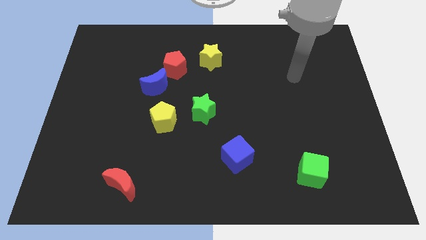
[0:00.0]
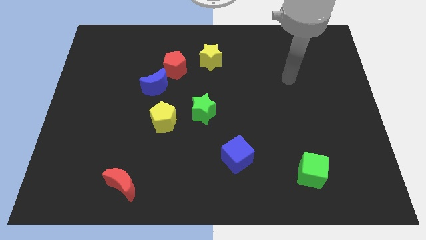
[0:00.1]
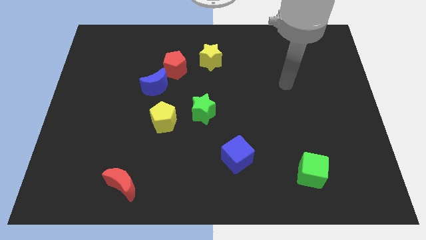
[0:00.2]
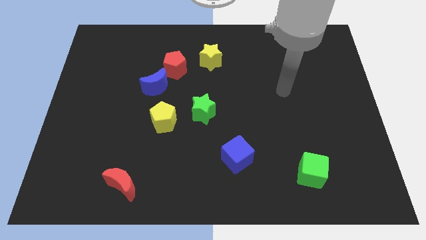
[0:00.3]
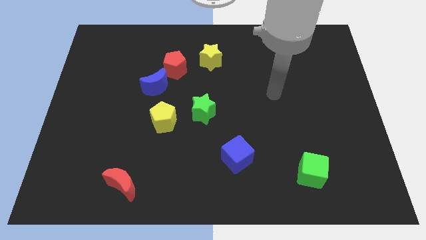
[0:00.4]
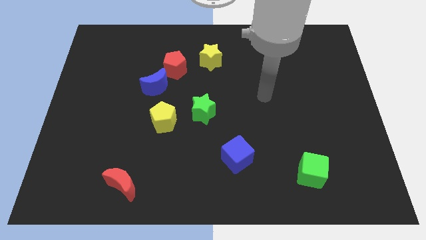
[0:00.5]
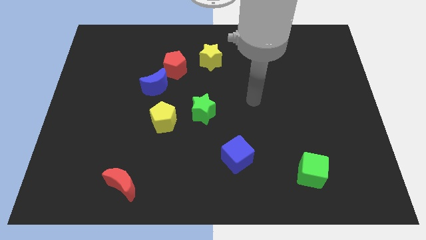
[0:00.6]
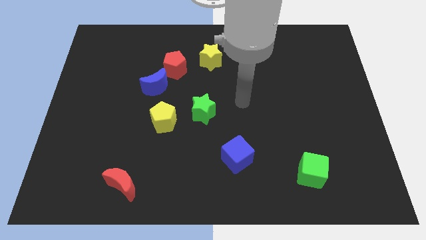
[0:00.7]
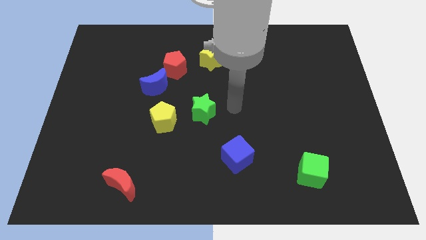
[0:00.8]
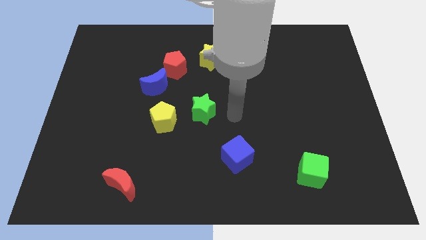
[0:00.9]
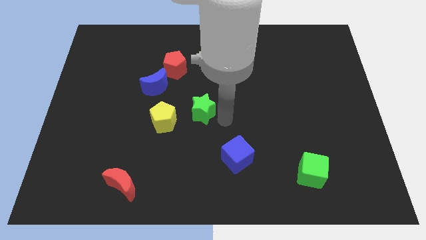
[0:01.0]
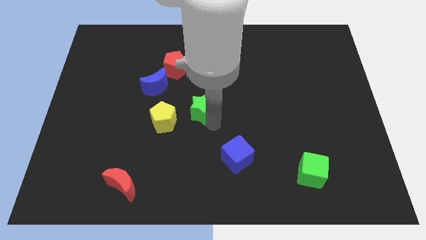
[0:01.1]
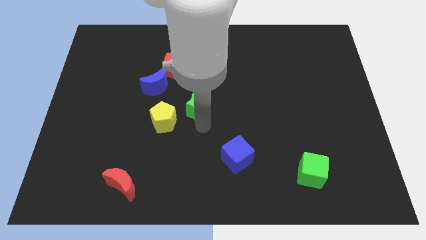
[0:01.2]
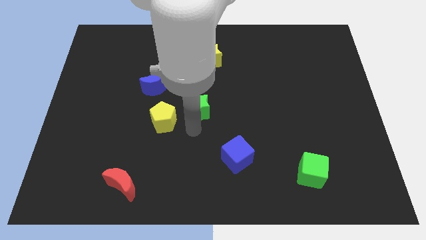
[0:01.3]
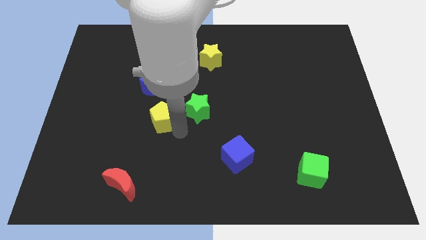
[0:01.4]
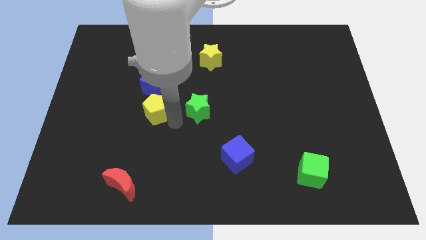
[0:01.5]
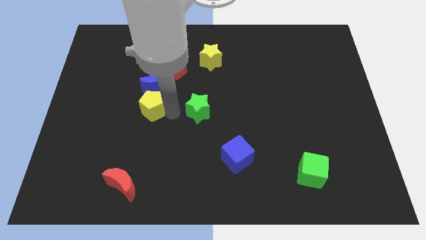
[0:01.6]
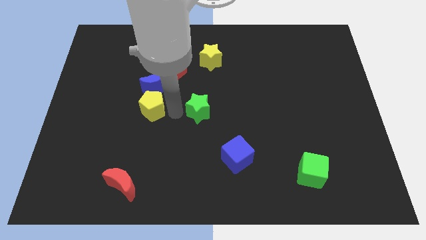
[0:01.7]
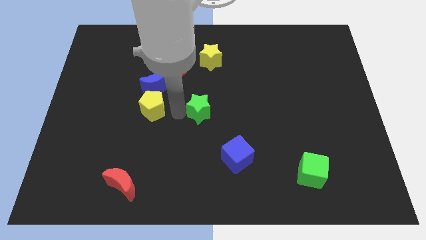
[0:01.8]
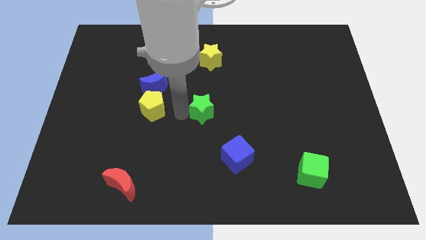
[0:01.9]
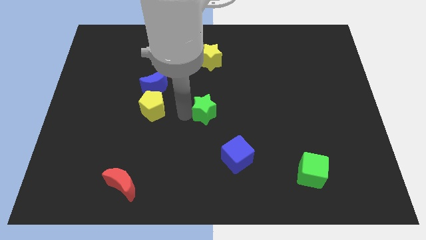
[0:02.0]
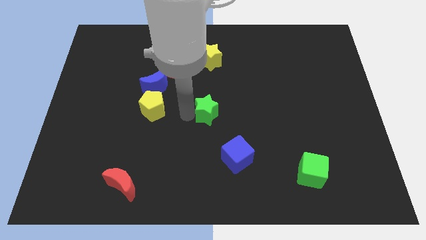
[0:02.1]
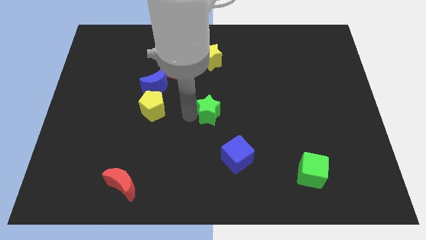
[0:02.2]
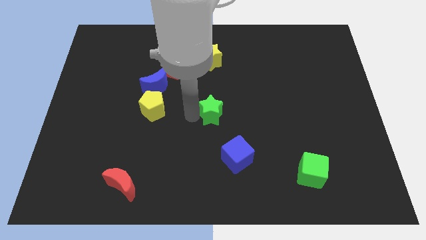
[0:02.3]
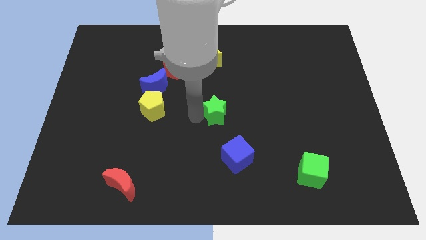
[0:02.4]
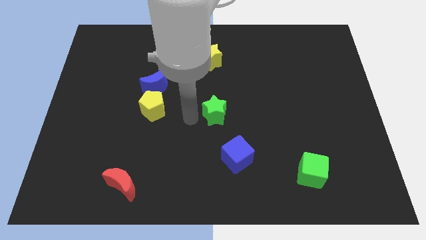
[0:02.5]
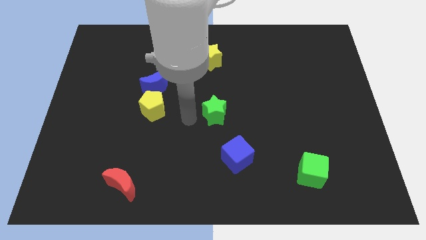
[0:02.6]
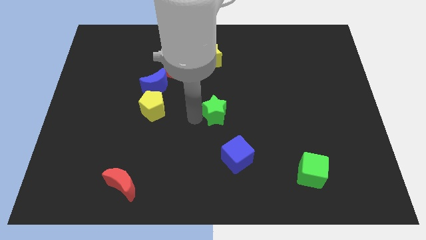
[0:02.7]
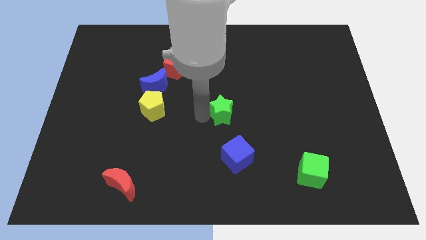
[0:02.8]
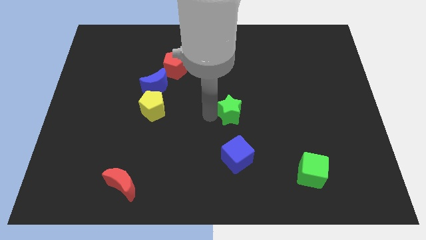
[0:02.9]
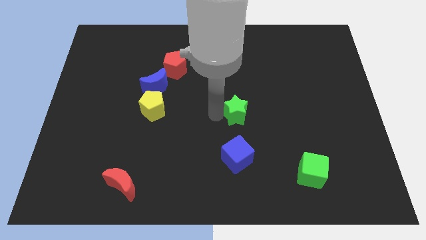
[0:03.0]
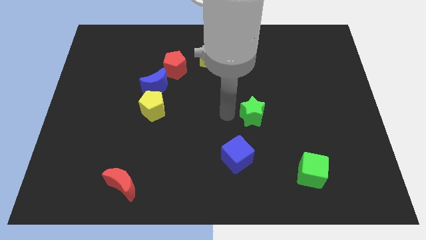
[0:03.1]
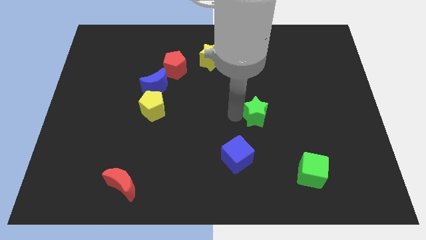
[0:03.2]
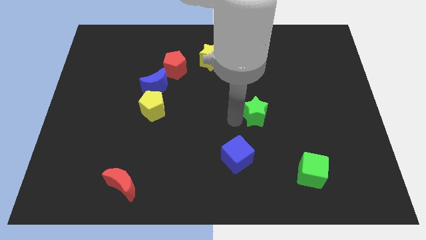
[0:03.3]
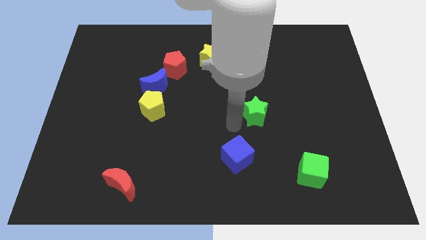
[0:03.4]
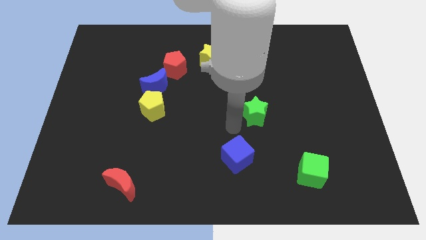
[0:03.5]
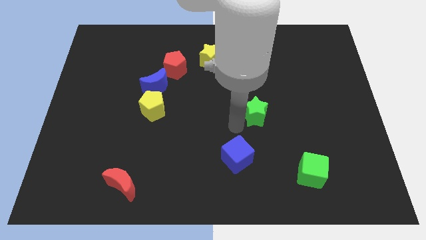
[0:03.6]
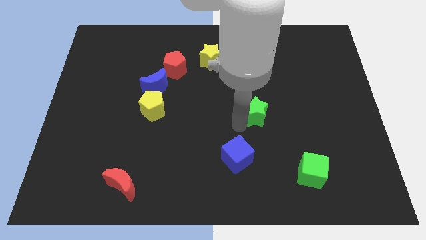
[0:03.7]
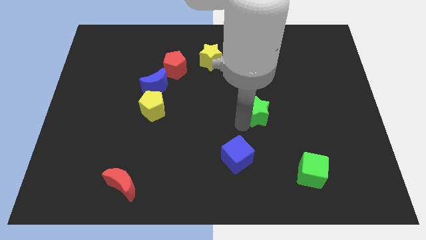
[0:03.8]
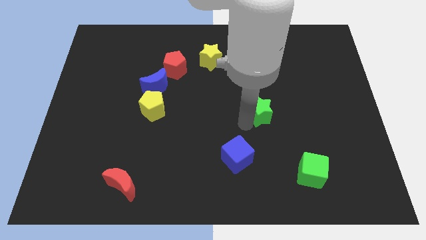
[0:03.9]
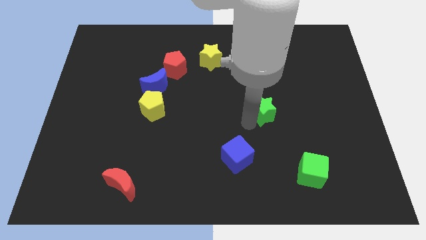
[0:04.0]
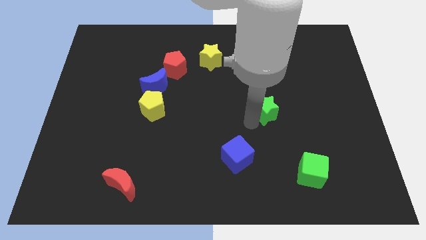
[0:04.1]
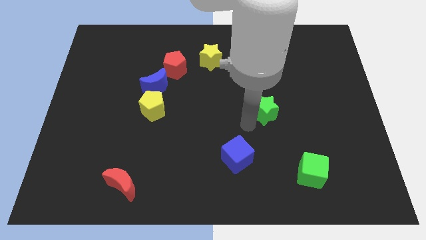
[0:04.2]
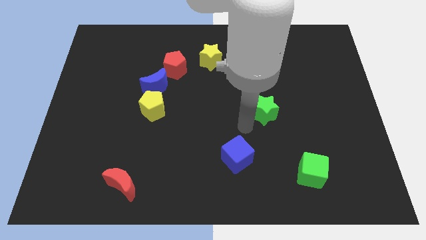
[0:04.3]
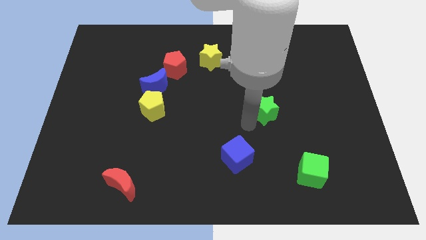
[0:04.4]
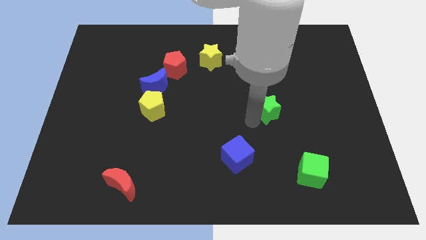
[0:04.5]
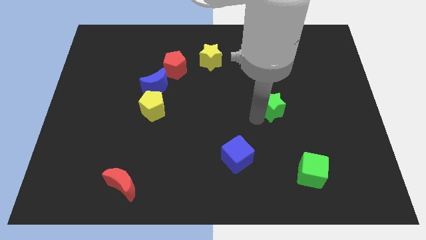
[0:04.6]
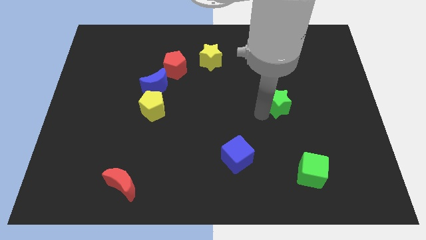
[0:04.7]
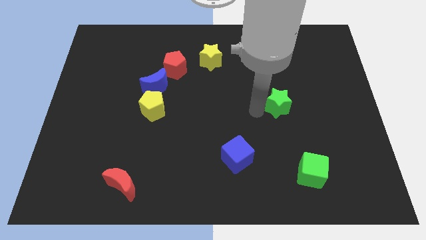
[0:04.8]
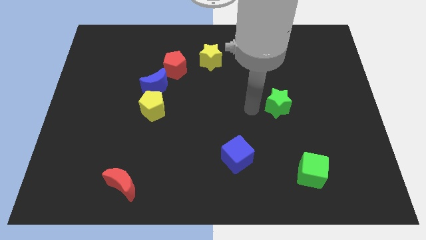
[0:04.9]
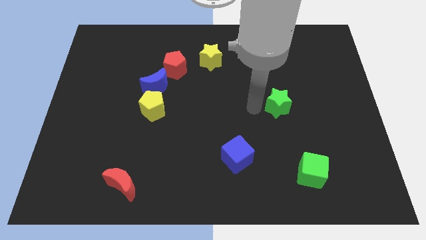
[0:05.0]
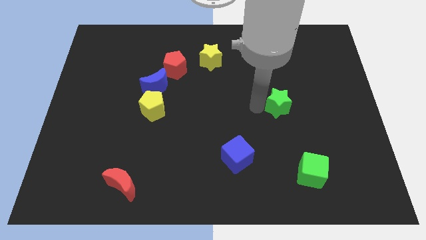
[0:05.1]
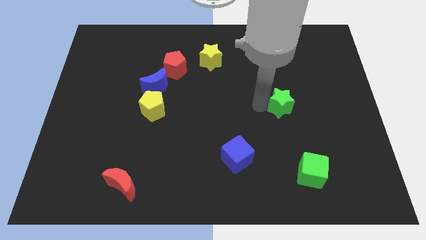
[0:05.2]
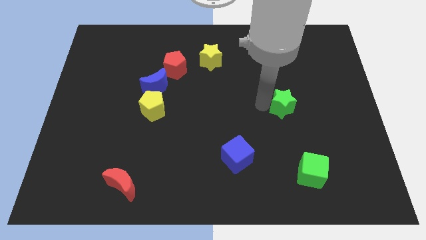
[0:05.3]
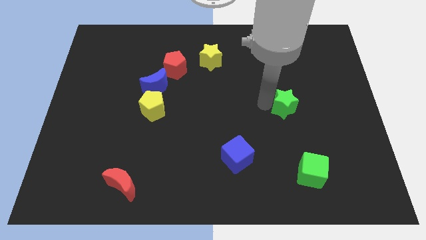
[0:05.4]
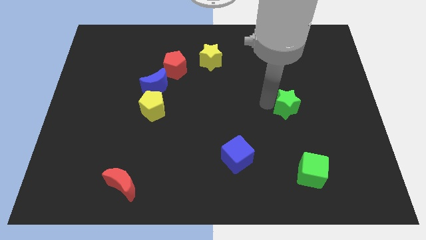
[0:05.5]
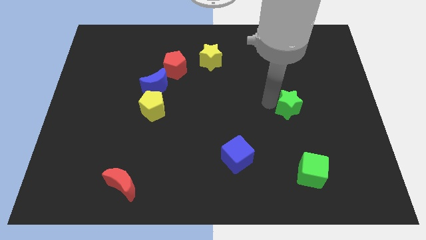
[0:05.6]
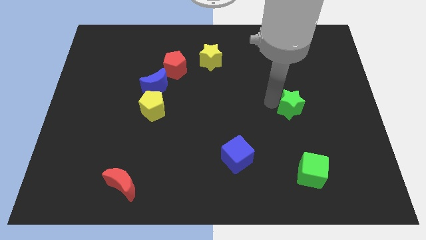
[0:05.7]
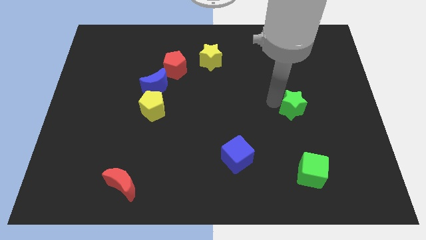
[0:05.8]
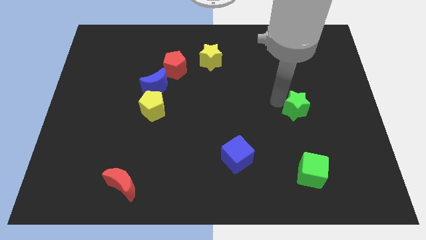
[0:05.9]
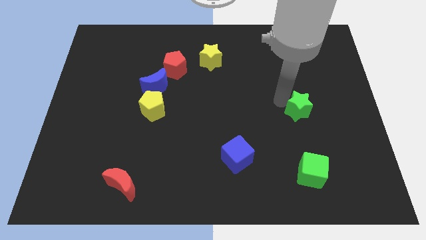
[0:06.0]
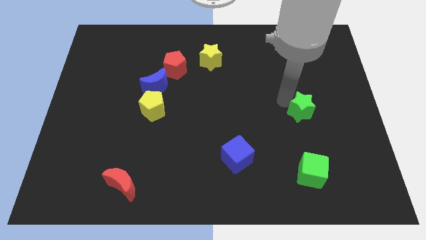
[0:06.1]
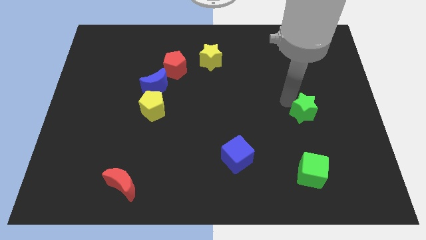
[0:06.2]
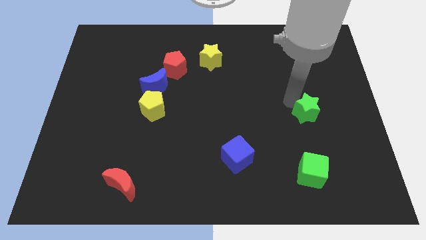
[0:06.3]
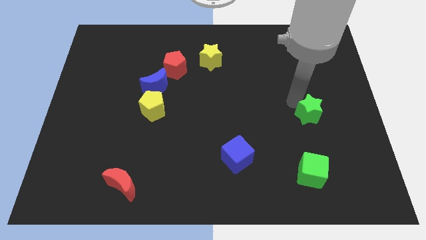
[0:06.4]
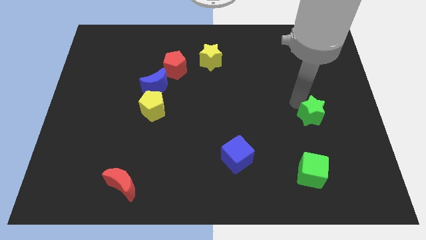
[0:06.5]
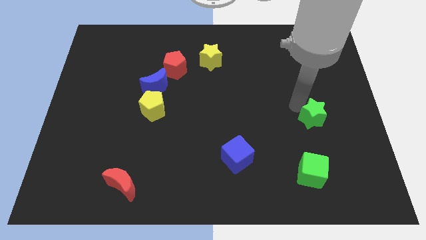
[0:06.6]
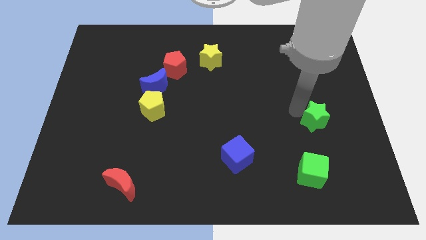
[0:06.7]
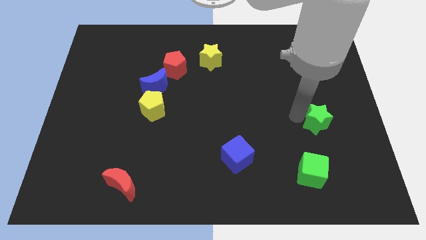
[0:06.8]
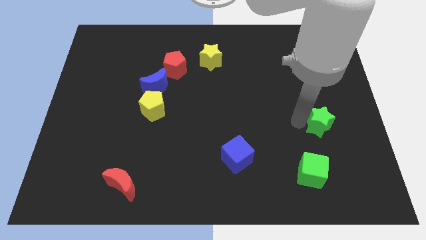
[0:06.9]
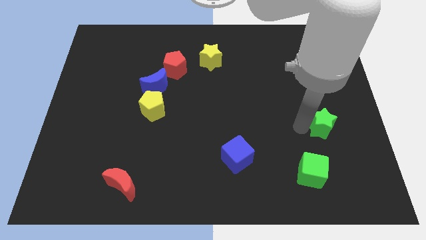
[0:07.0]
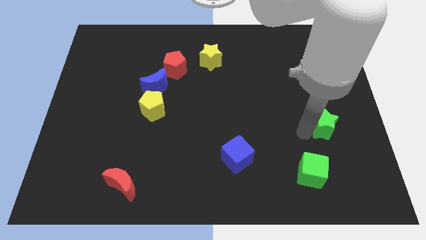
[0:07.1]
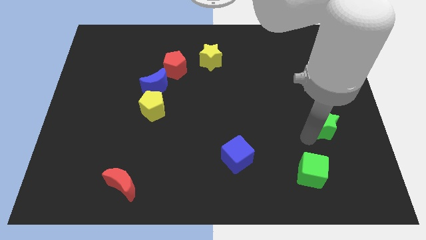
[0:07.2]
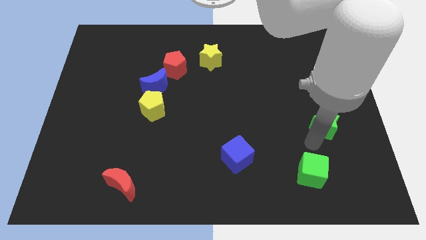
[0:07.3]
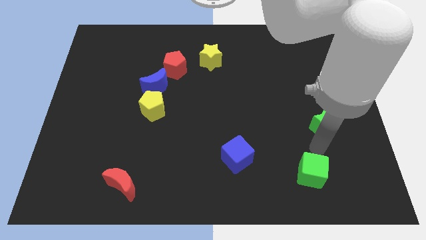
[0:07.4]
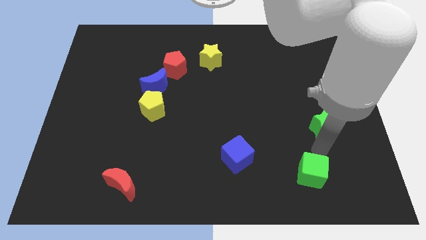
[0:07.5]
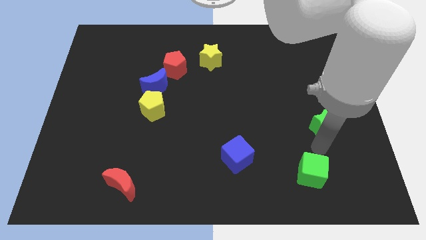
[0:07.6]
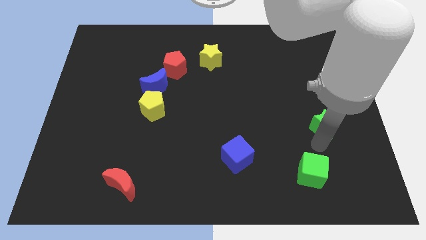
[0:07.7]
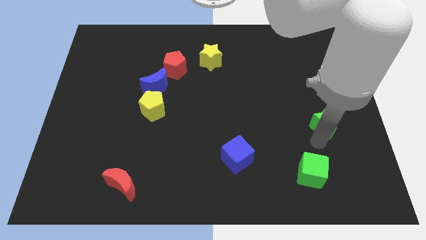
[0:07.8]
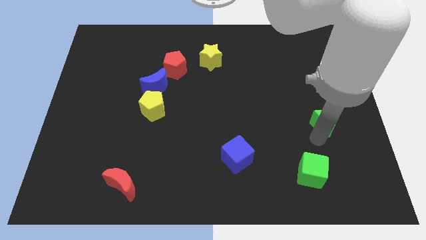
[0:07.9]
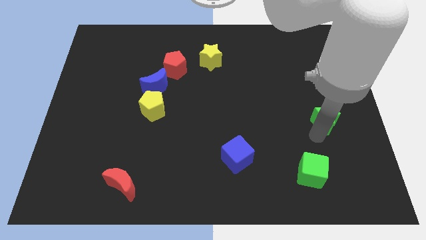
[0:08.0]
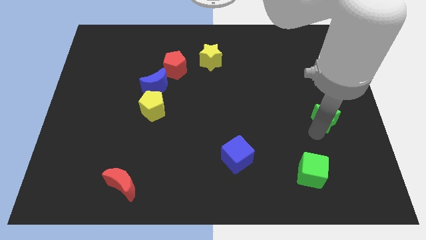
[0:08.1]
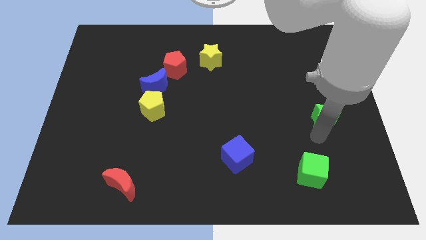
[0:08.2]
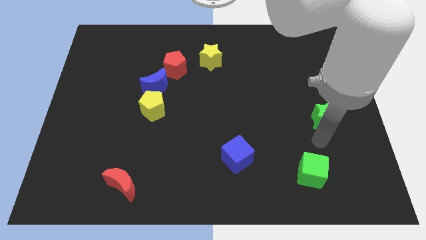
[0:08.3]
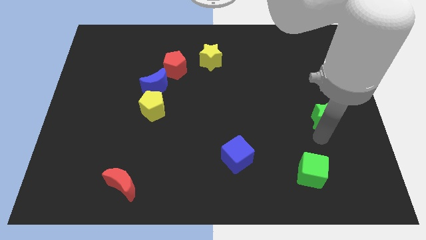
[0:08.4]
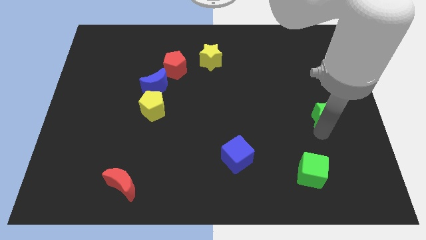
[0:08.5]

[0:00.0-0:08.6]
move the green star to the center right
